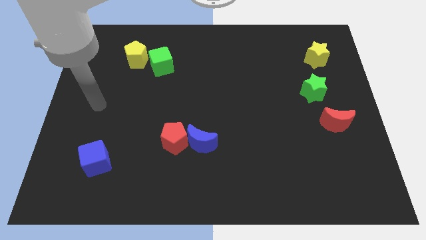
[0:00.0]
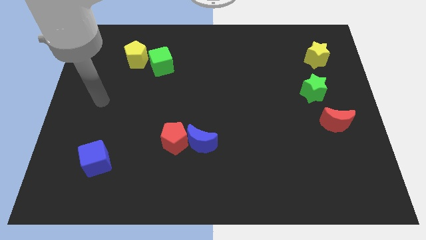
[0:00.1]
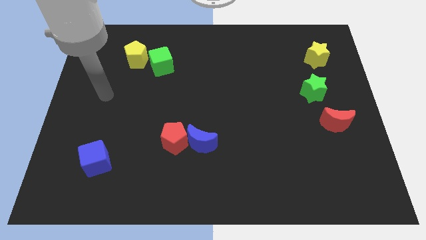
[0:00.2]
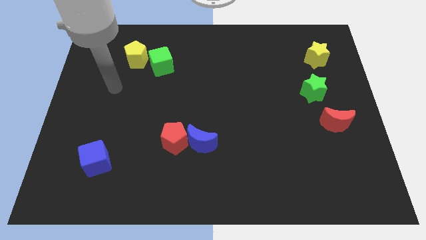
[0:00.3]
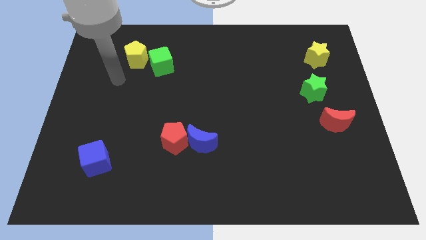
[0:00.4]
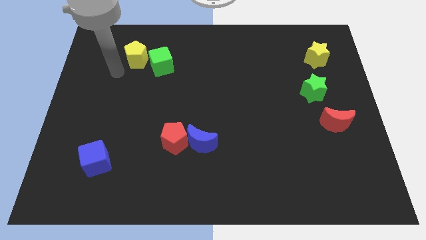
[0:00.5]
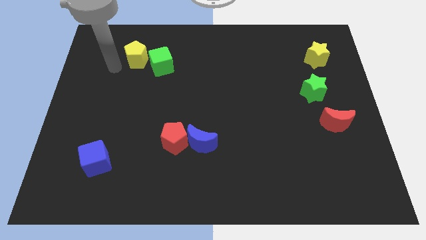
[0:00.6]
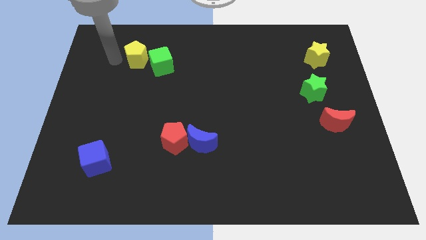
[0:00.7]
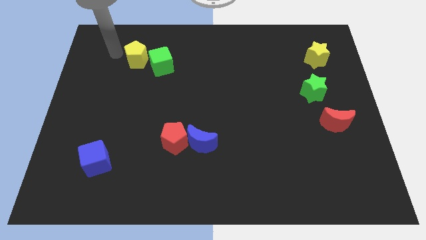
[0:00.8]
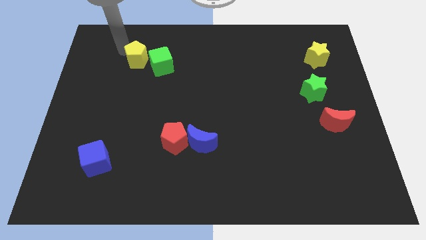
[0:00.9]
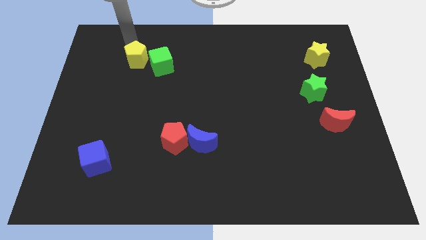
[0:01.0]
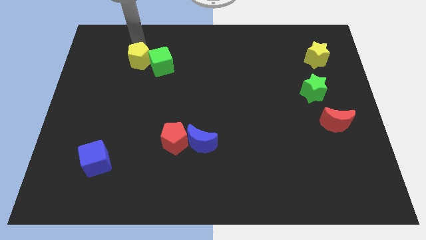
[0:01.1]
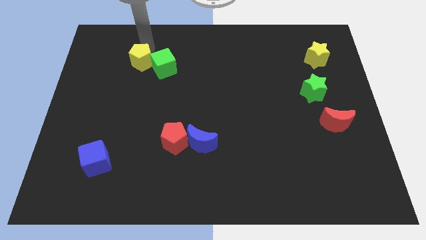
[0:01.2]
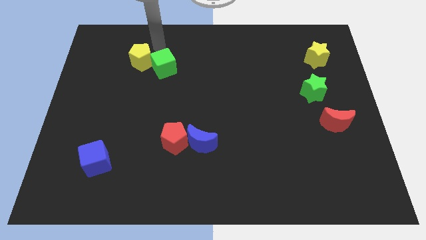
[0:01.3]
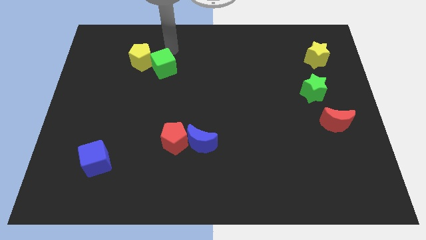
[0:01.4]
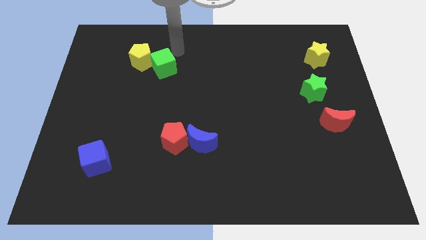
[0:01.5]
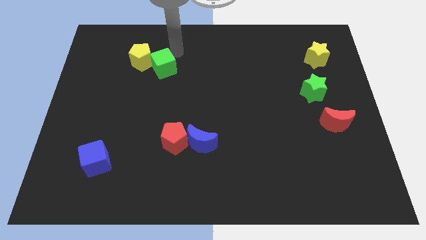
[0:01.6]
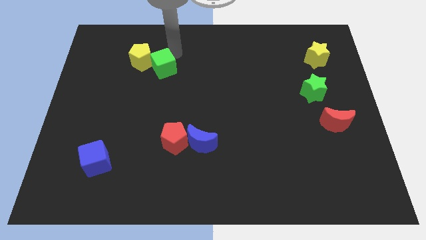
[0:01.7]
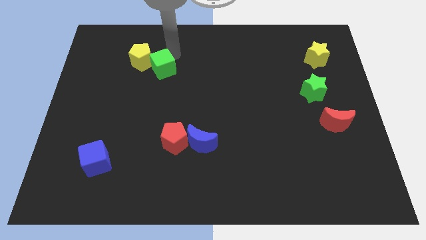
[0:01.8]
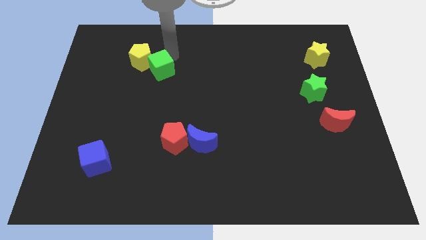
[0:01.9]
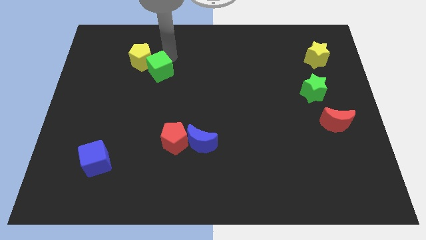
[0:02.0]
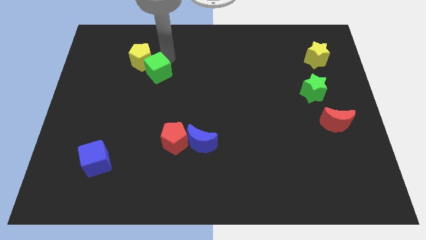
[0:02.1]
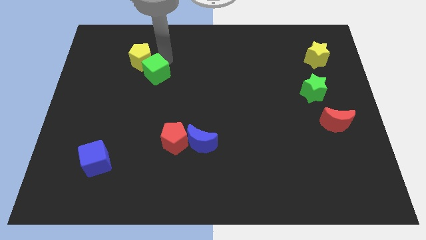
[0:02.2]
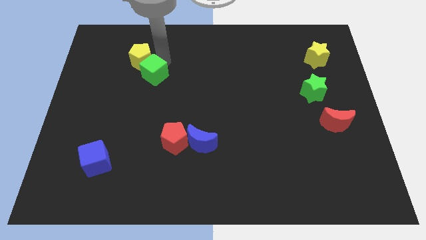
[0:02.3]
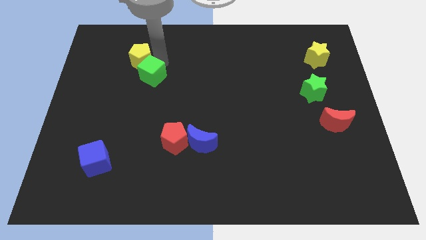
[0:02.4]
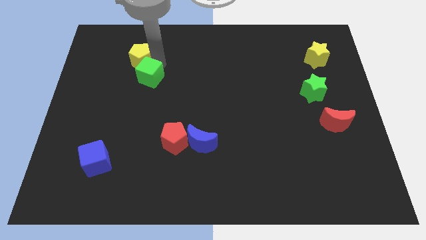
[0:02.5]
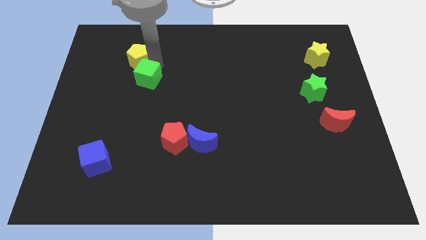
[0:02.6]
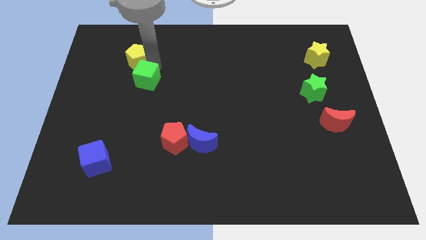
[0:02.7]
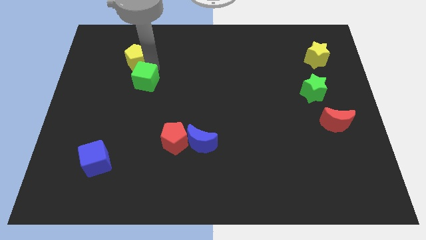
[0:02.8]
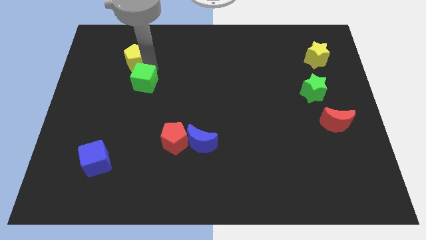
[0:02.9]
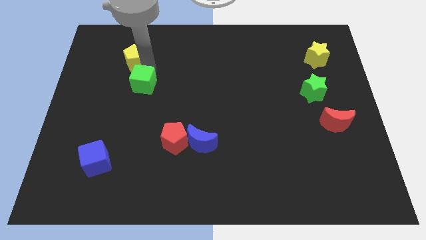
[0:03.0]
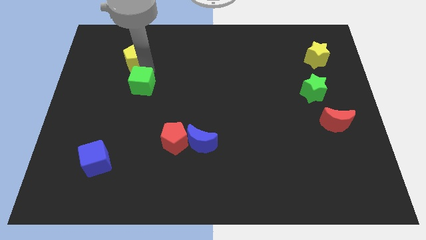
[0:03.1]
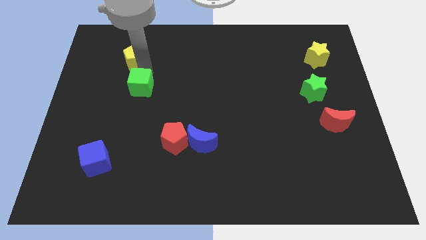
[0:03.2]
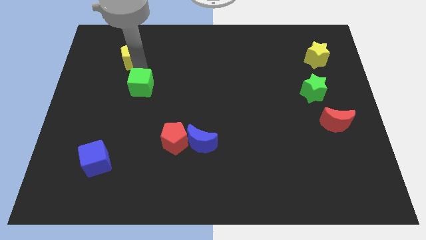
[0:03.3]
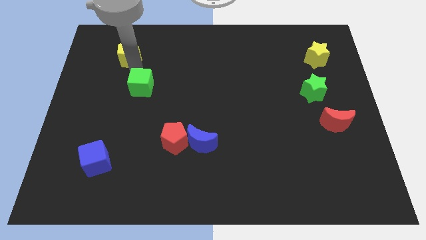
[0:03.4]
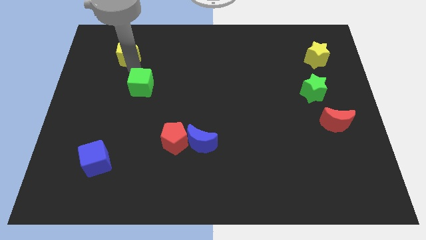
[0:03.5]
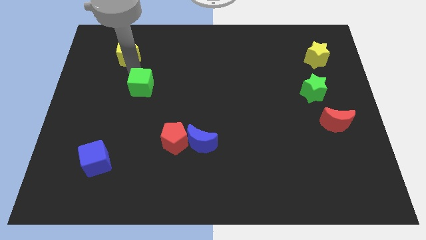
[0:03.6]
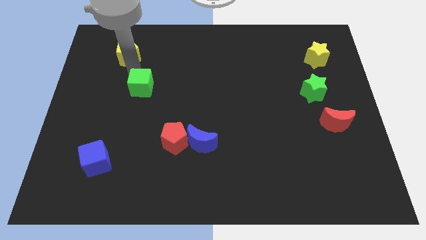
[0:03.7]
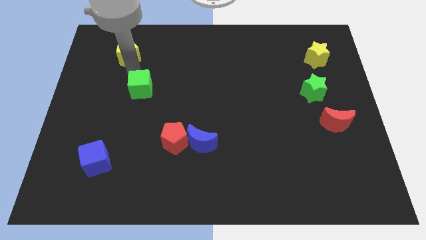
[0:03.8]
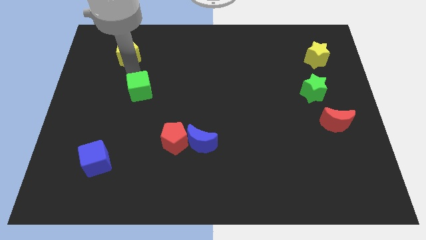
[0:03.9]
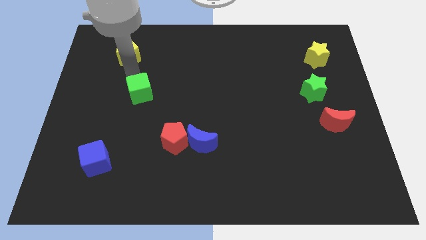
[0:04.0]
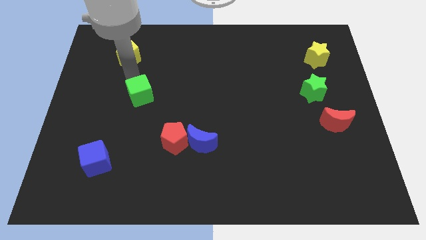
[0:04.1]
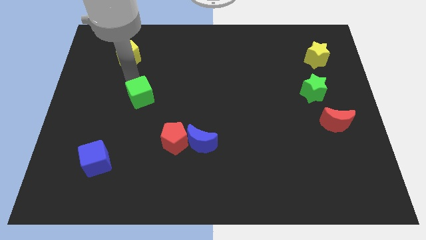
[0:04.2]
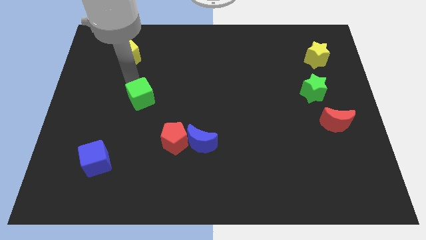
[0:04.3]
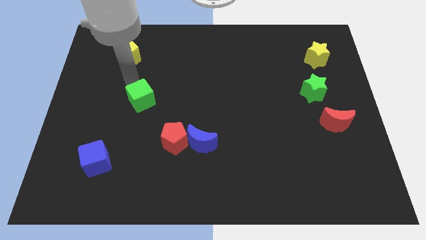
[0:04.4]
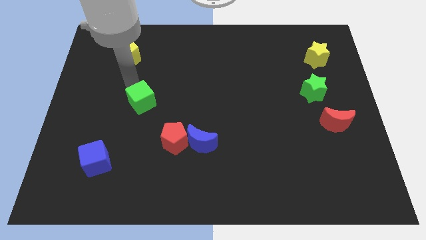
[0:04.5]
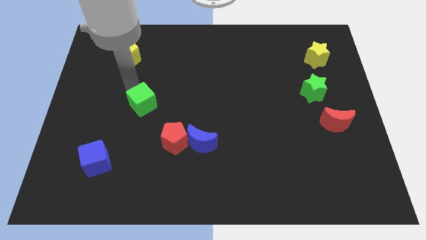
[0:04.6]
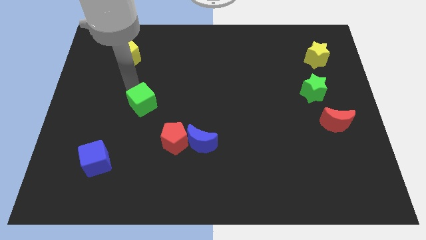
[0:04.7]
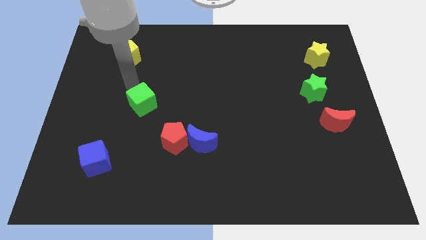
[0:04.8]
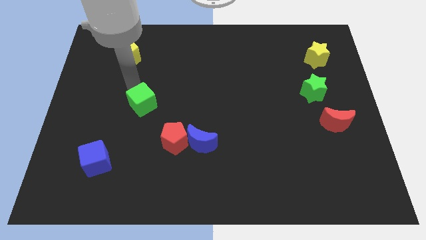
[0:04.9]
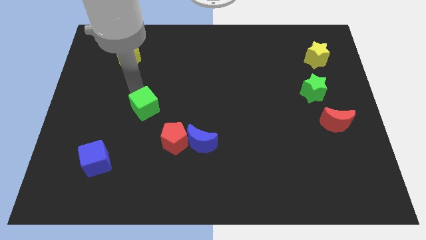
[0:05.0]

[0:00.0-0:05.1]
push the green cube to the top left side of the red pentagon
